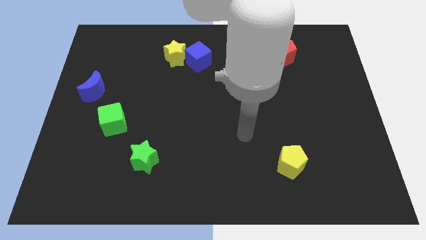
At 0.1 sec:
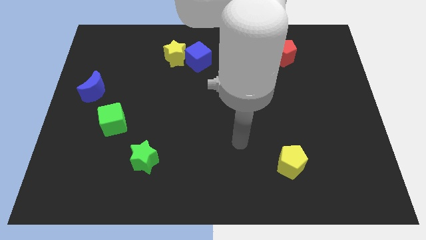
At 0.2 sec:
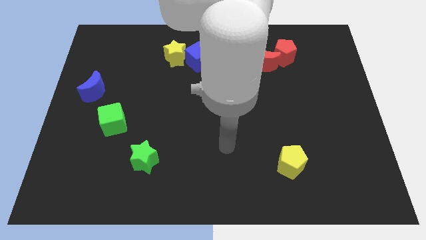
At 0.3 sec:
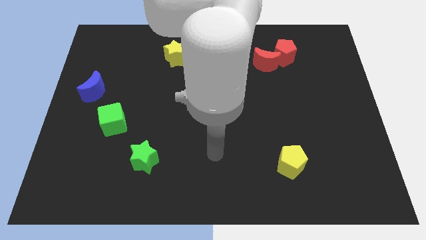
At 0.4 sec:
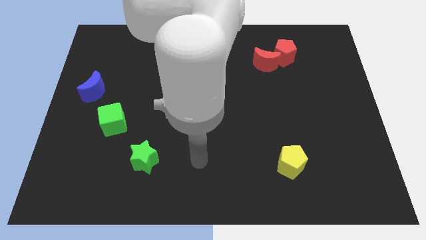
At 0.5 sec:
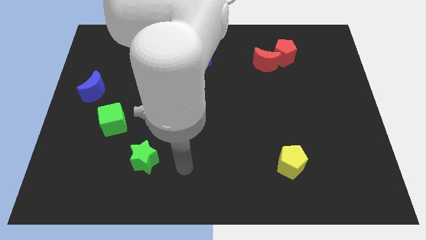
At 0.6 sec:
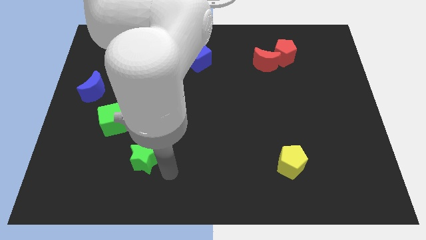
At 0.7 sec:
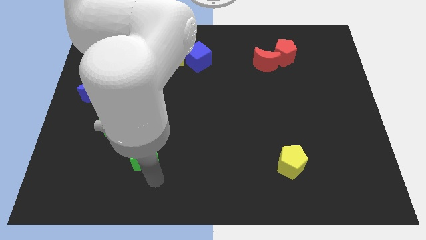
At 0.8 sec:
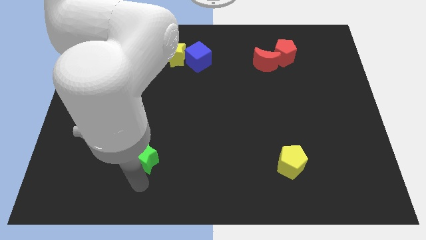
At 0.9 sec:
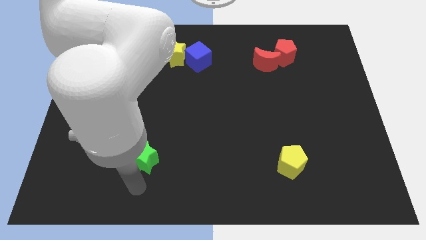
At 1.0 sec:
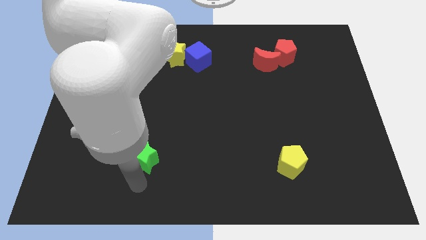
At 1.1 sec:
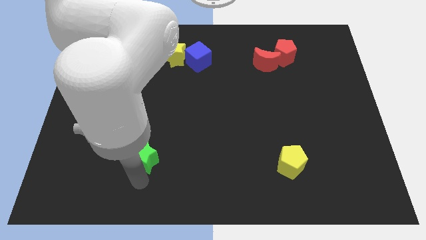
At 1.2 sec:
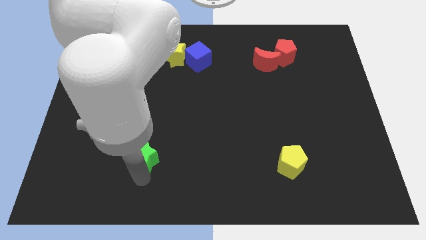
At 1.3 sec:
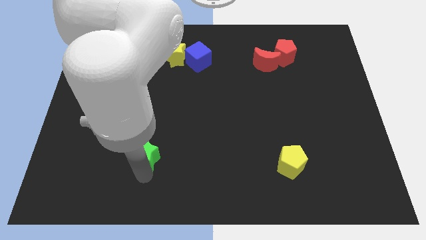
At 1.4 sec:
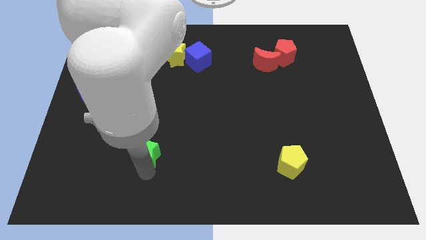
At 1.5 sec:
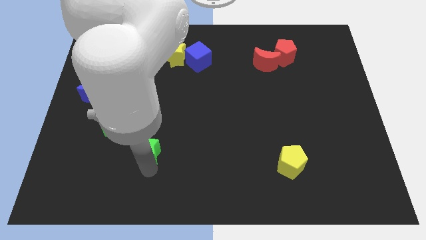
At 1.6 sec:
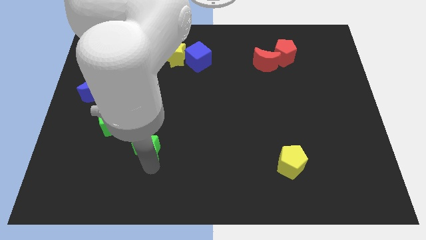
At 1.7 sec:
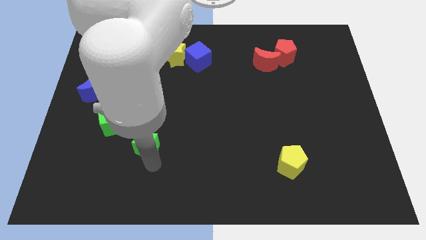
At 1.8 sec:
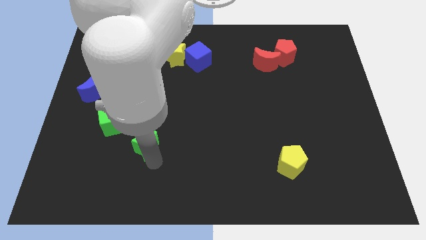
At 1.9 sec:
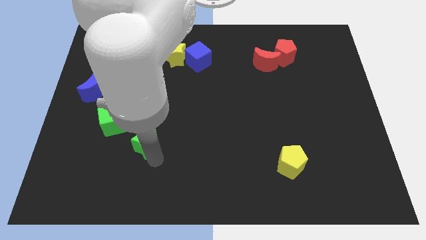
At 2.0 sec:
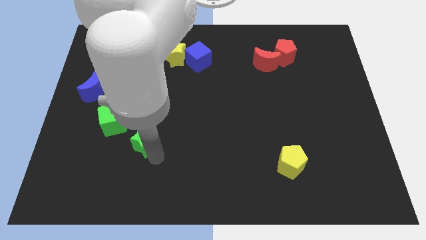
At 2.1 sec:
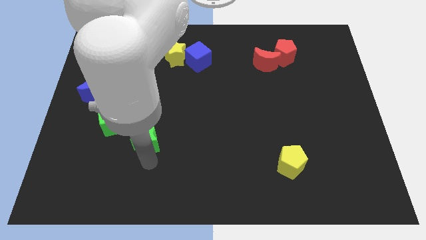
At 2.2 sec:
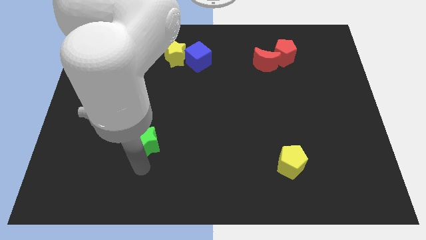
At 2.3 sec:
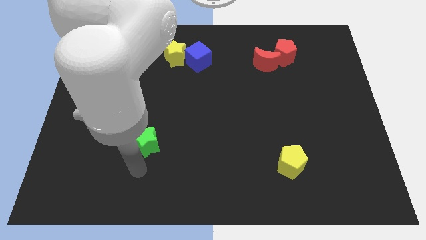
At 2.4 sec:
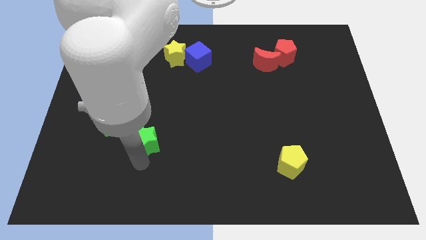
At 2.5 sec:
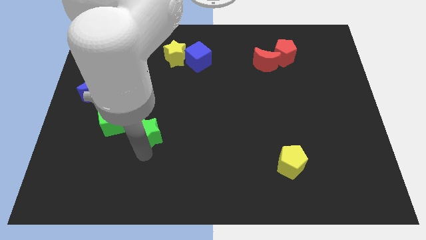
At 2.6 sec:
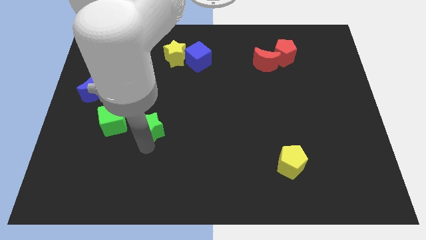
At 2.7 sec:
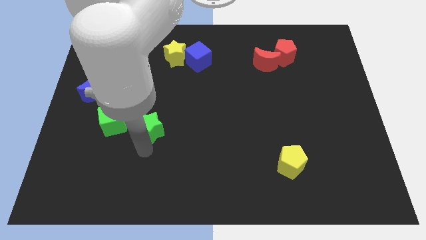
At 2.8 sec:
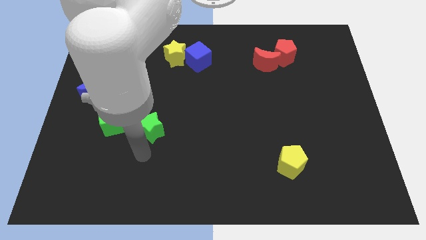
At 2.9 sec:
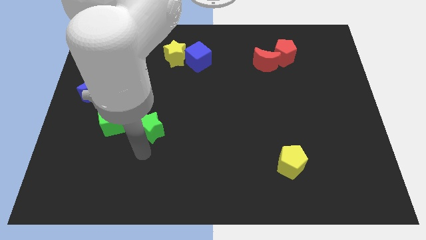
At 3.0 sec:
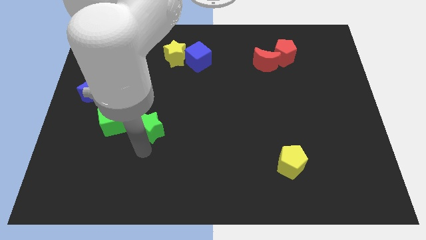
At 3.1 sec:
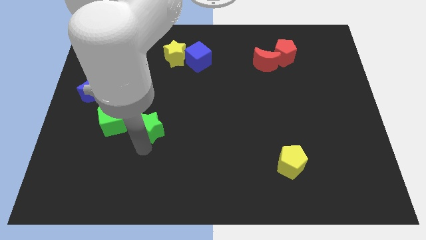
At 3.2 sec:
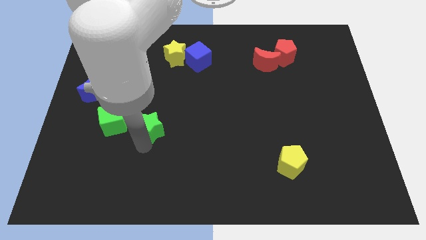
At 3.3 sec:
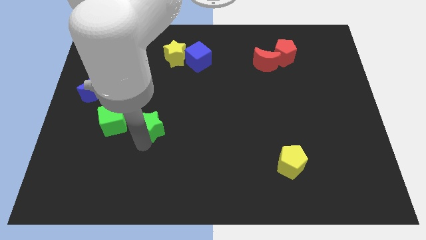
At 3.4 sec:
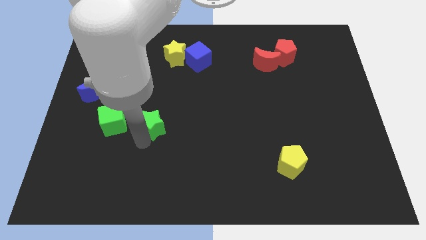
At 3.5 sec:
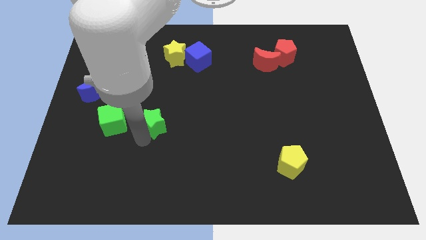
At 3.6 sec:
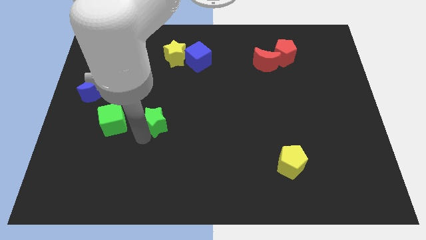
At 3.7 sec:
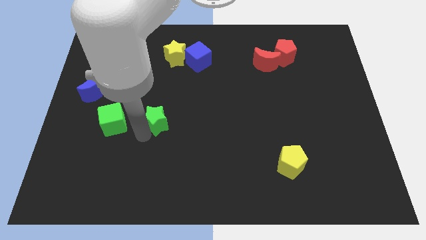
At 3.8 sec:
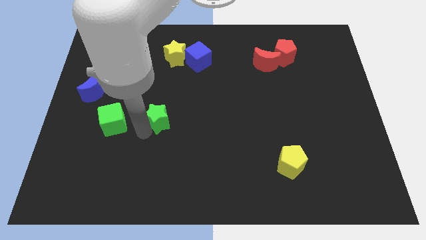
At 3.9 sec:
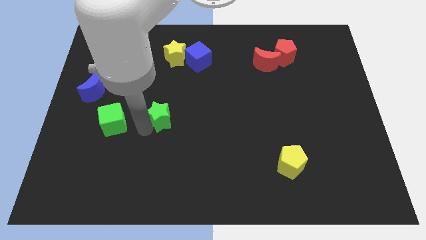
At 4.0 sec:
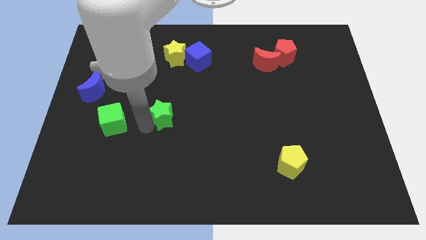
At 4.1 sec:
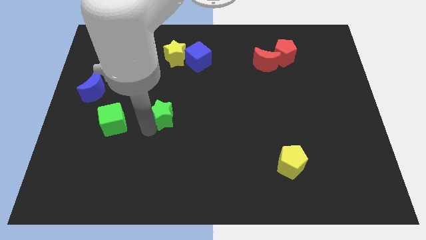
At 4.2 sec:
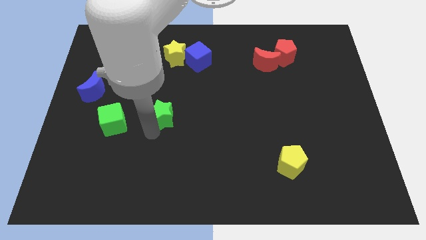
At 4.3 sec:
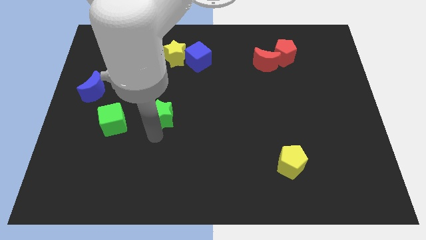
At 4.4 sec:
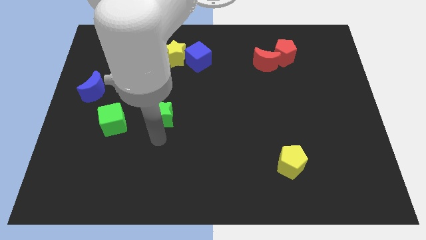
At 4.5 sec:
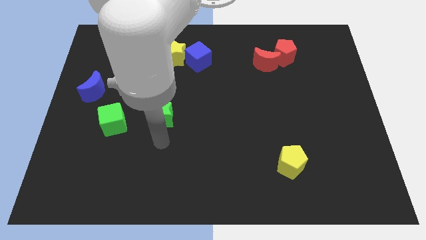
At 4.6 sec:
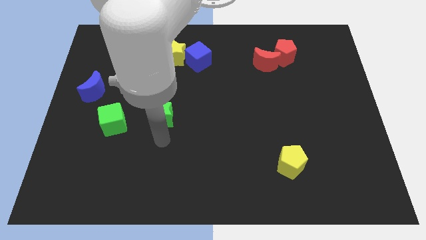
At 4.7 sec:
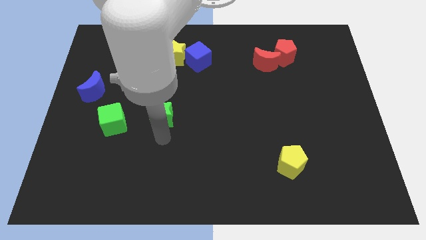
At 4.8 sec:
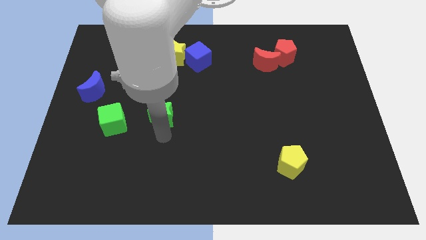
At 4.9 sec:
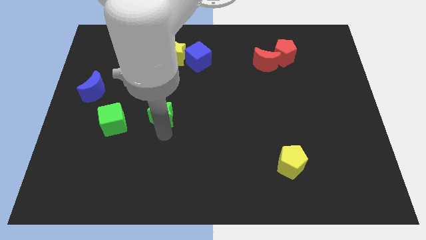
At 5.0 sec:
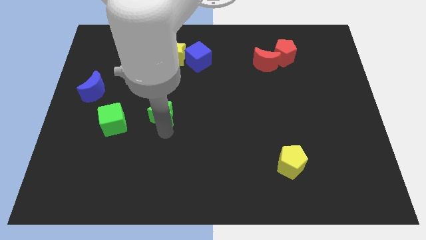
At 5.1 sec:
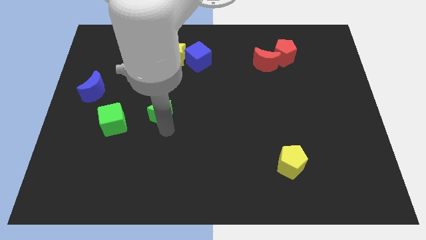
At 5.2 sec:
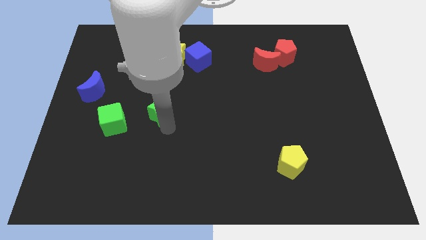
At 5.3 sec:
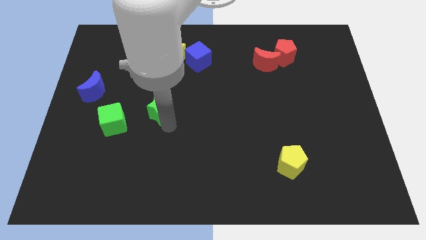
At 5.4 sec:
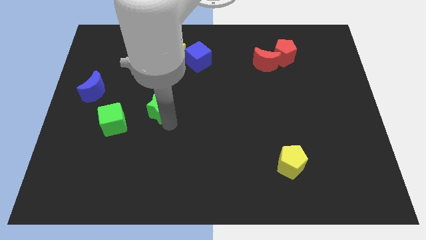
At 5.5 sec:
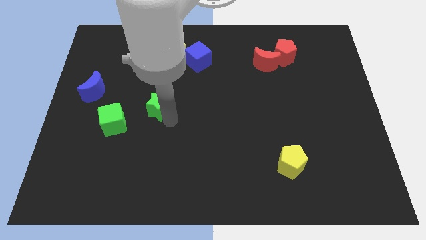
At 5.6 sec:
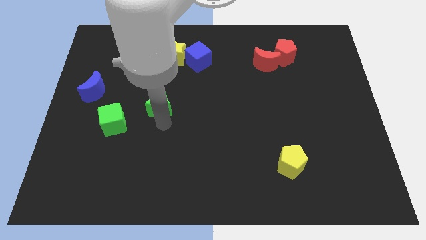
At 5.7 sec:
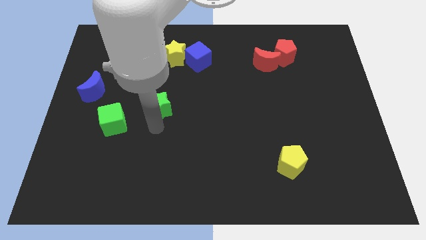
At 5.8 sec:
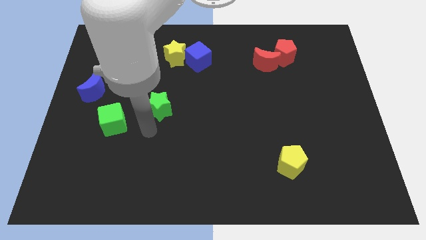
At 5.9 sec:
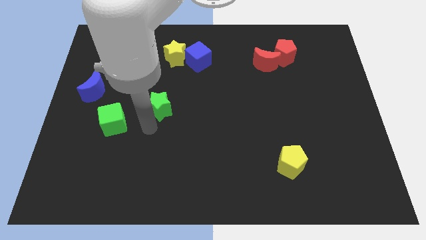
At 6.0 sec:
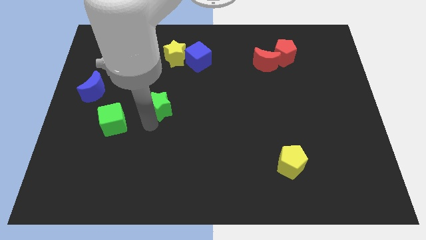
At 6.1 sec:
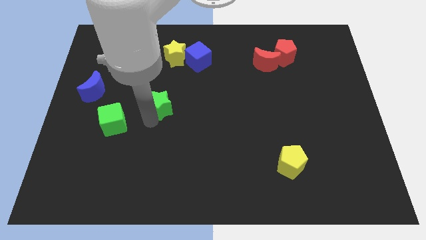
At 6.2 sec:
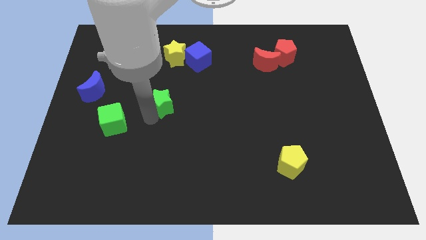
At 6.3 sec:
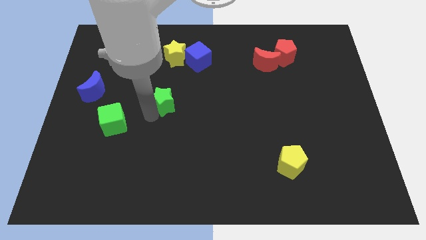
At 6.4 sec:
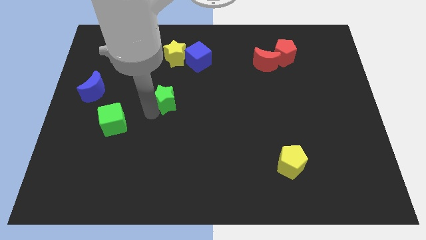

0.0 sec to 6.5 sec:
put the green star to the bottom of the yellow star

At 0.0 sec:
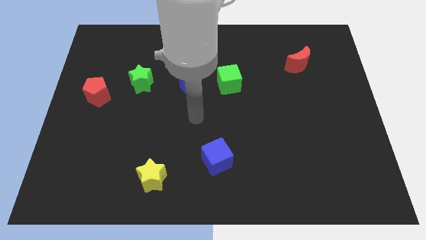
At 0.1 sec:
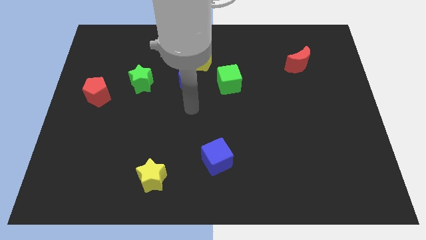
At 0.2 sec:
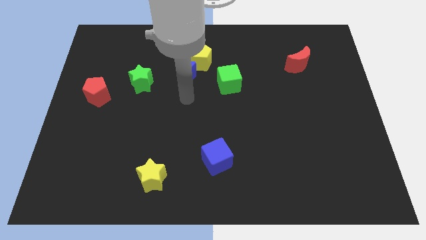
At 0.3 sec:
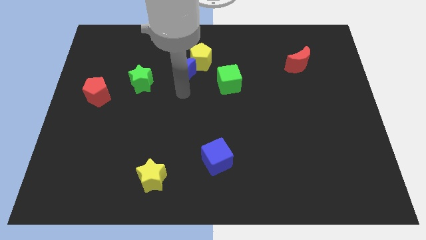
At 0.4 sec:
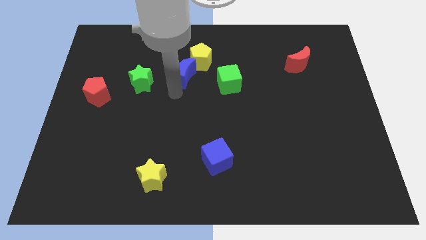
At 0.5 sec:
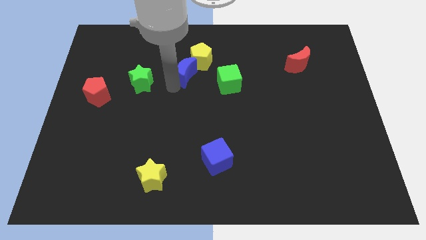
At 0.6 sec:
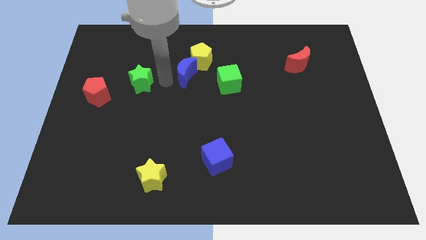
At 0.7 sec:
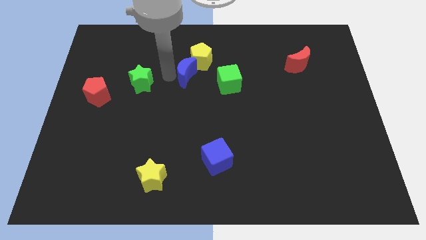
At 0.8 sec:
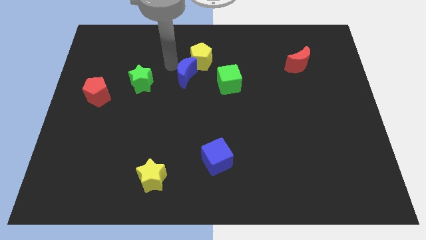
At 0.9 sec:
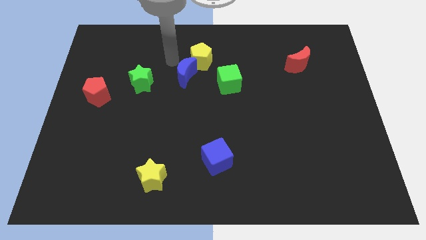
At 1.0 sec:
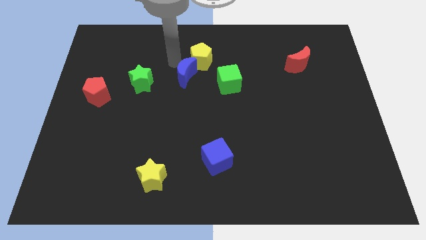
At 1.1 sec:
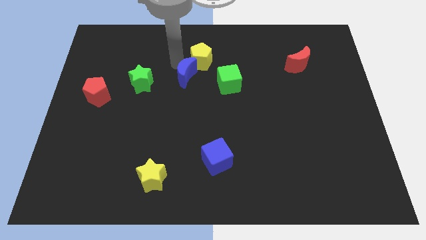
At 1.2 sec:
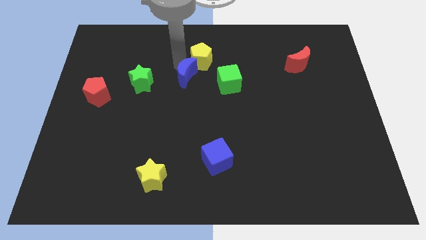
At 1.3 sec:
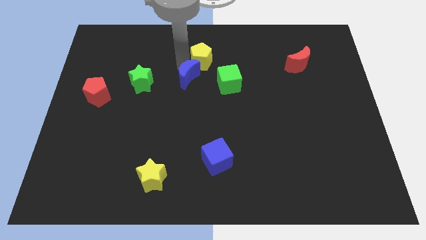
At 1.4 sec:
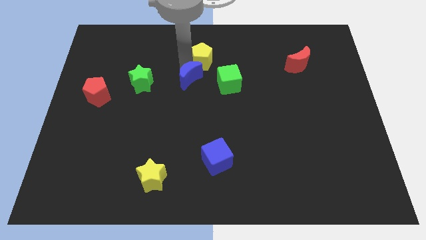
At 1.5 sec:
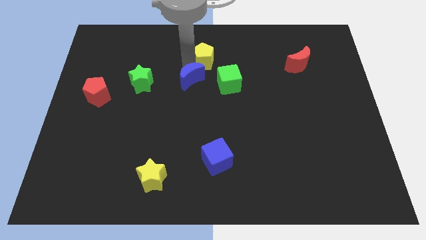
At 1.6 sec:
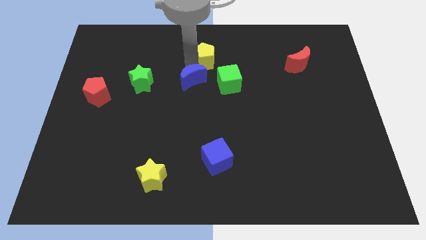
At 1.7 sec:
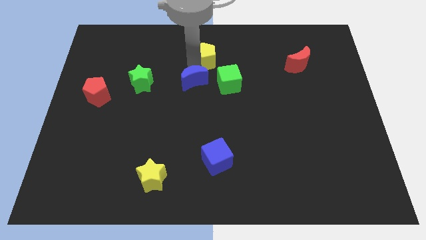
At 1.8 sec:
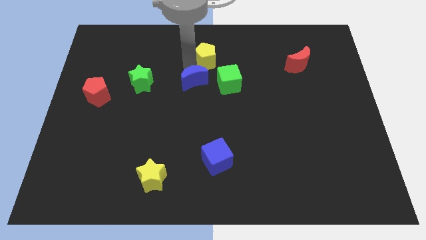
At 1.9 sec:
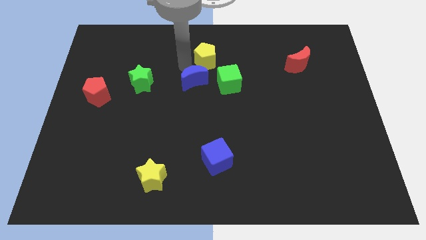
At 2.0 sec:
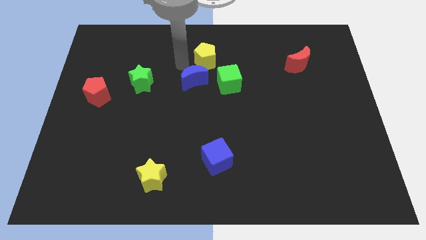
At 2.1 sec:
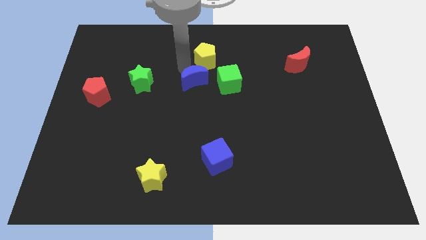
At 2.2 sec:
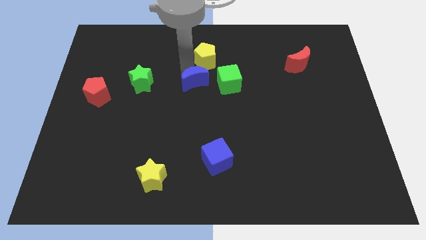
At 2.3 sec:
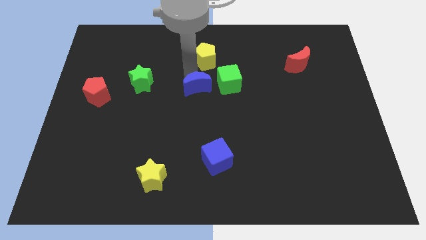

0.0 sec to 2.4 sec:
put the blue moon diagonally down and to the left of the green cube
